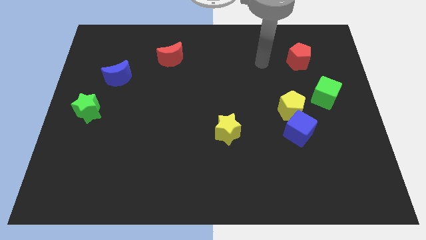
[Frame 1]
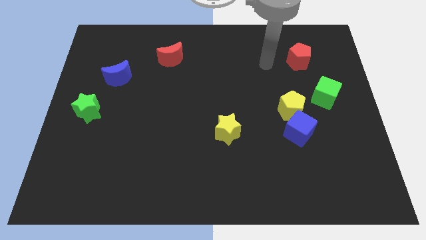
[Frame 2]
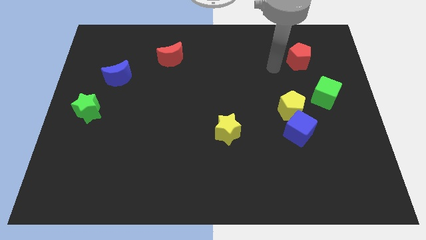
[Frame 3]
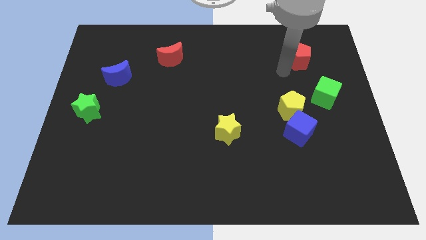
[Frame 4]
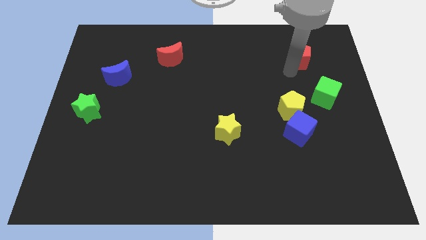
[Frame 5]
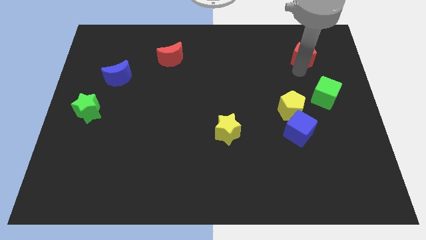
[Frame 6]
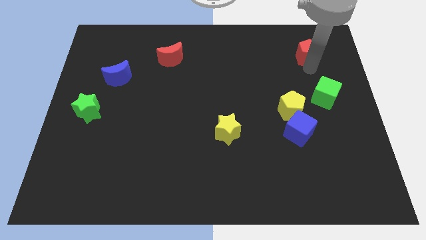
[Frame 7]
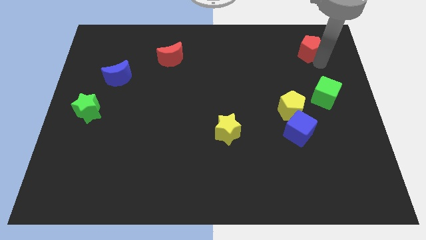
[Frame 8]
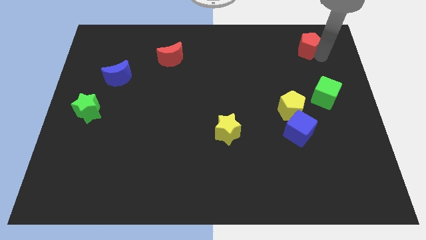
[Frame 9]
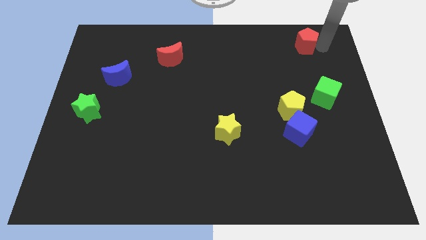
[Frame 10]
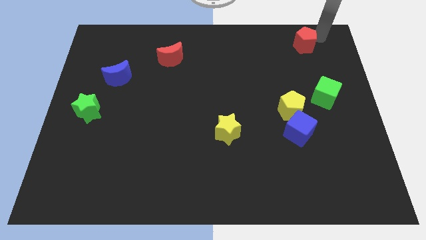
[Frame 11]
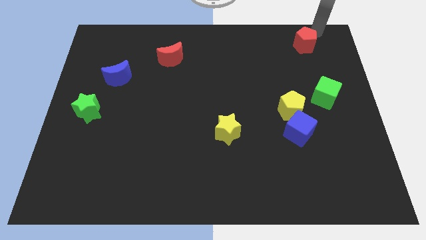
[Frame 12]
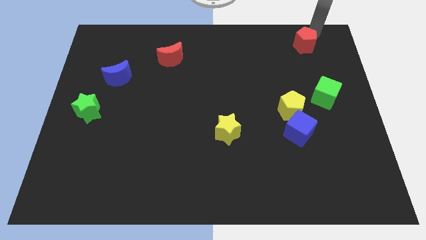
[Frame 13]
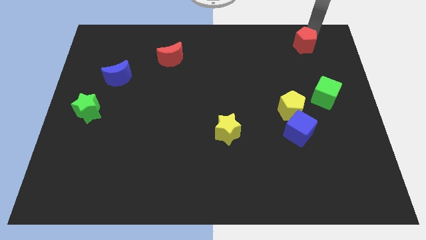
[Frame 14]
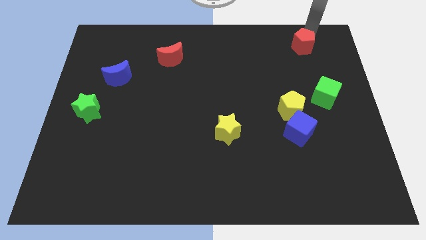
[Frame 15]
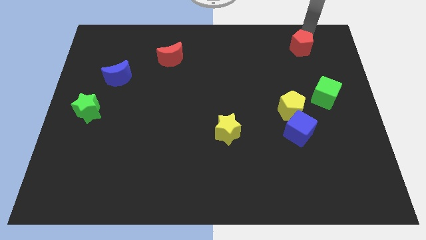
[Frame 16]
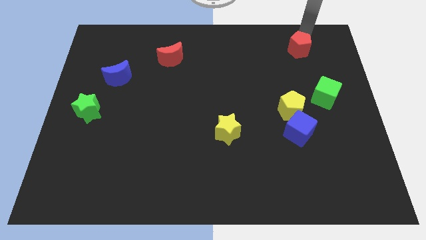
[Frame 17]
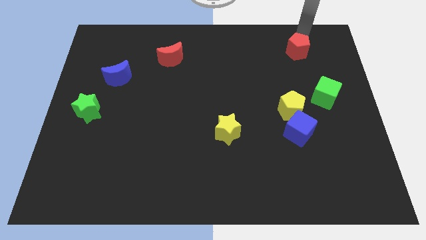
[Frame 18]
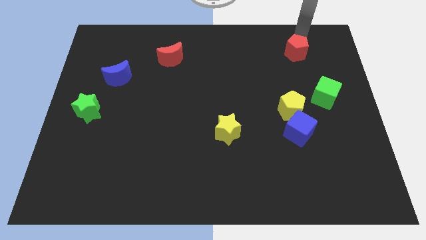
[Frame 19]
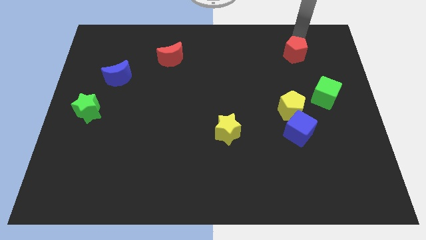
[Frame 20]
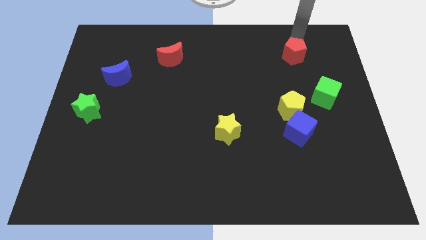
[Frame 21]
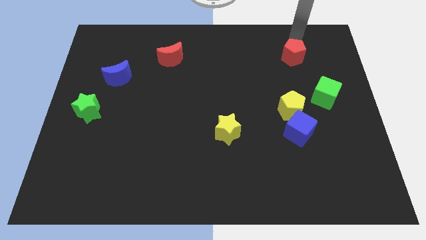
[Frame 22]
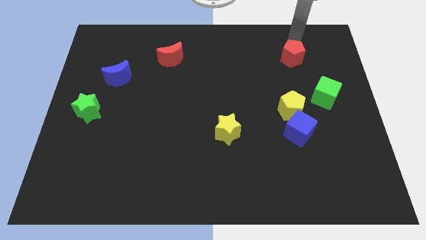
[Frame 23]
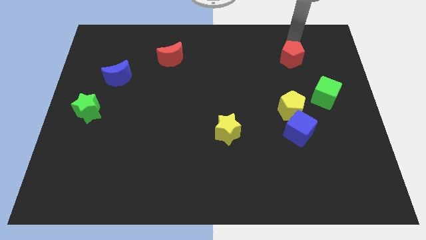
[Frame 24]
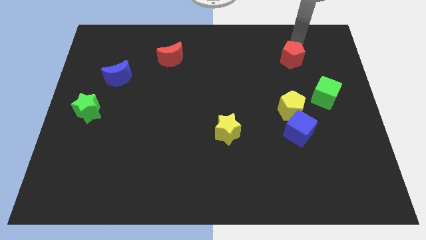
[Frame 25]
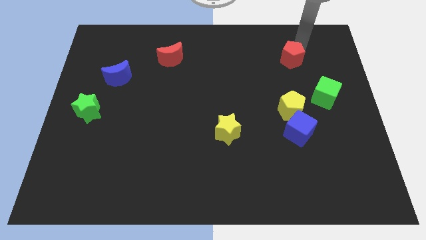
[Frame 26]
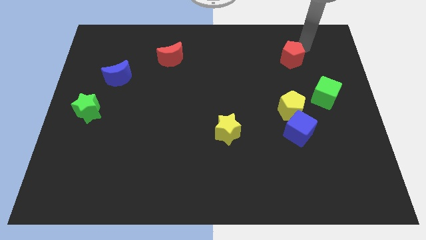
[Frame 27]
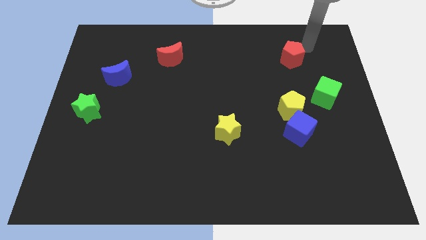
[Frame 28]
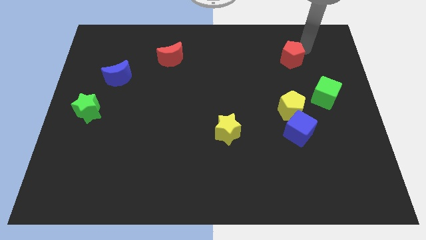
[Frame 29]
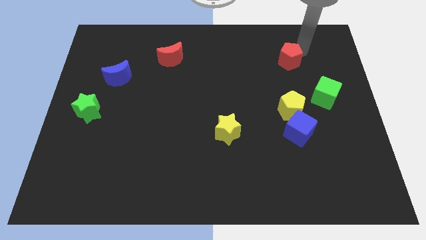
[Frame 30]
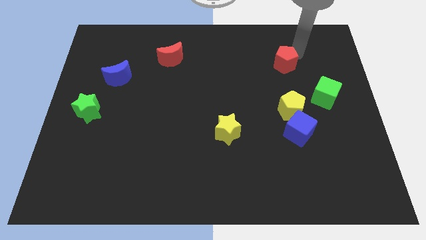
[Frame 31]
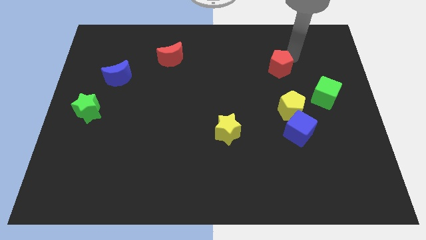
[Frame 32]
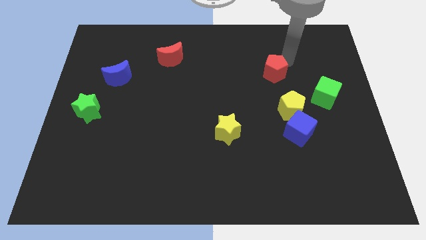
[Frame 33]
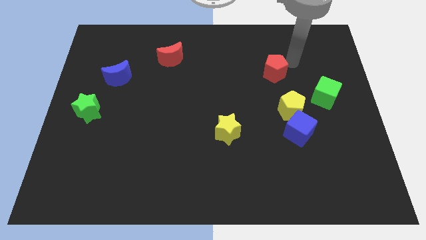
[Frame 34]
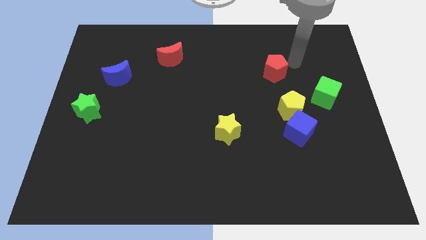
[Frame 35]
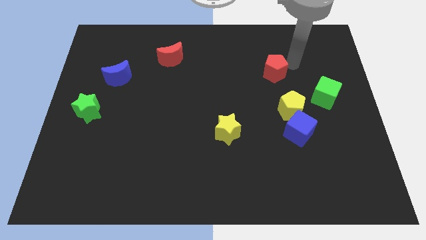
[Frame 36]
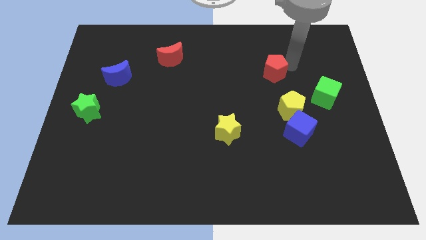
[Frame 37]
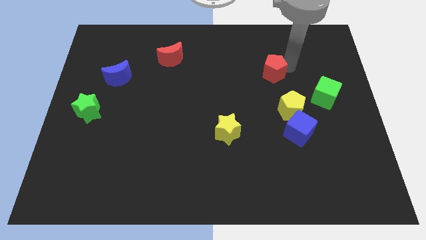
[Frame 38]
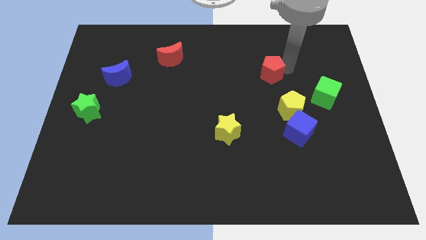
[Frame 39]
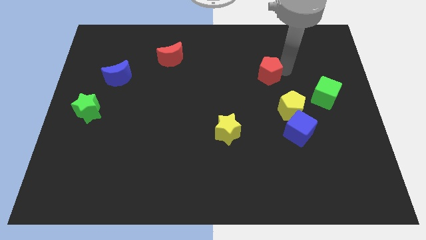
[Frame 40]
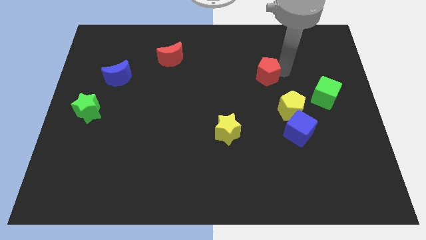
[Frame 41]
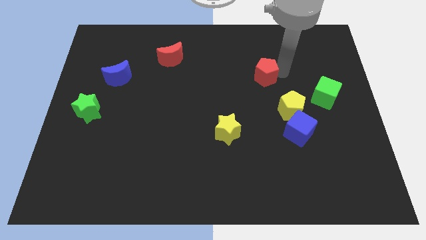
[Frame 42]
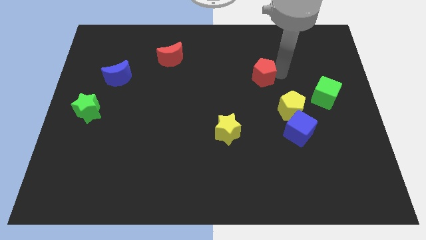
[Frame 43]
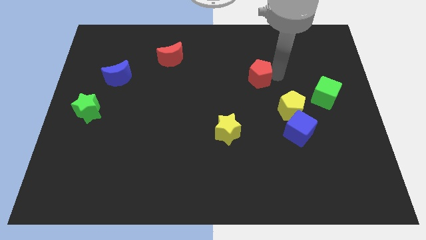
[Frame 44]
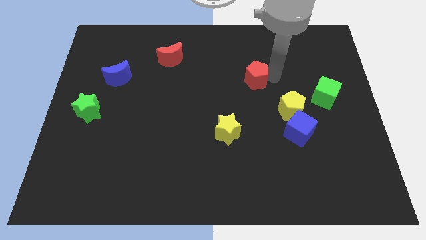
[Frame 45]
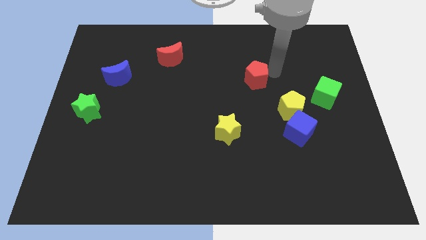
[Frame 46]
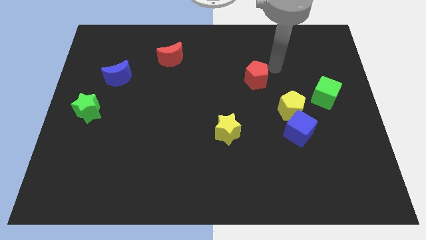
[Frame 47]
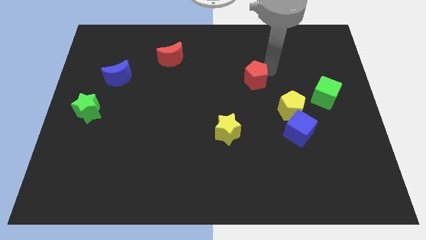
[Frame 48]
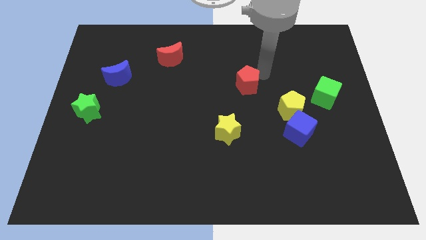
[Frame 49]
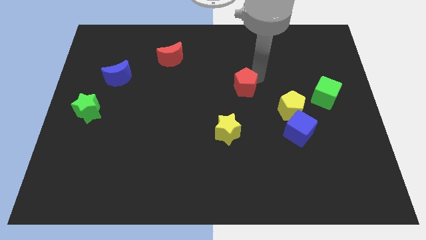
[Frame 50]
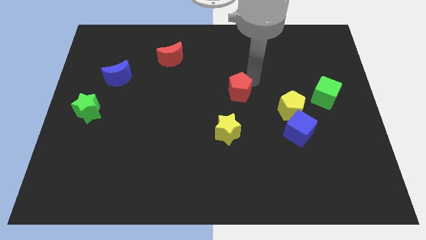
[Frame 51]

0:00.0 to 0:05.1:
slide the red pentagon above the yellow star

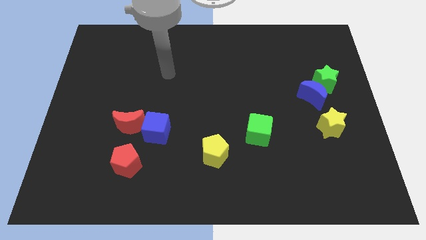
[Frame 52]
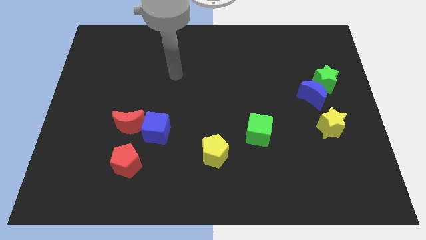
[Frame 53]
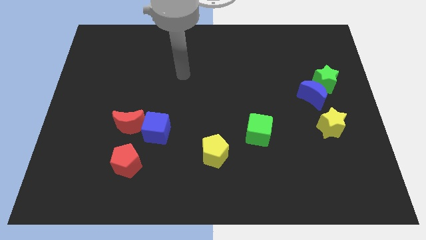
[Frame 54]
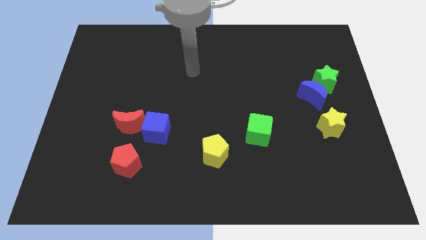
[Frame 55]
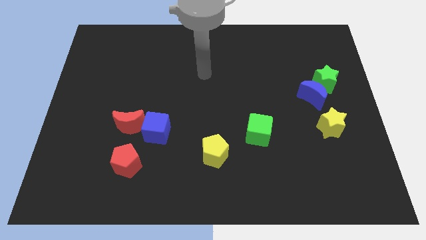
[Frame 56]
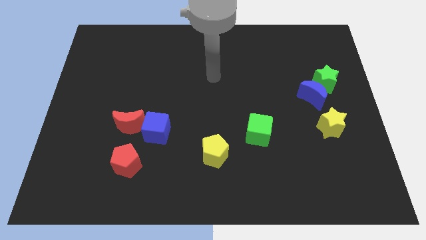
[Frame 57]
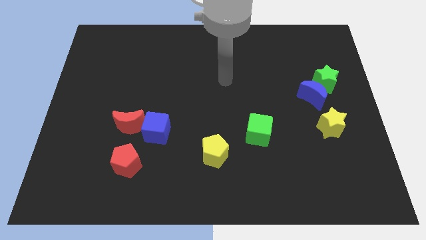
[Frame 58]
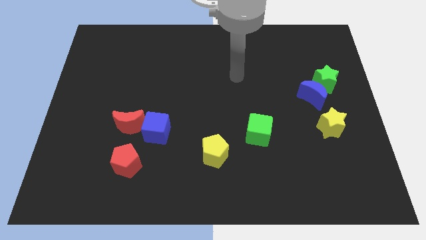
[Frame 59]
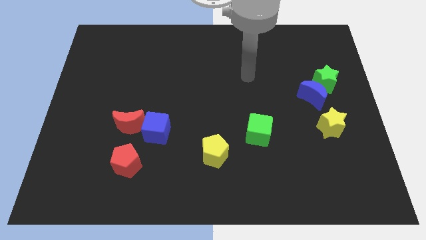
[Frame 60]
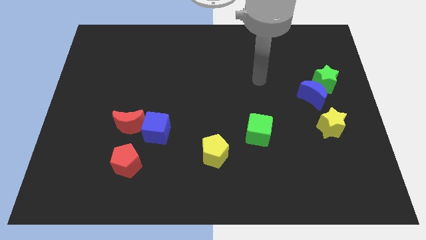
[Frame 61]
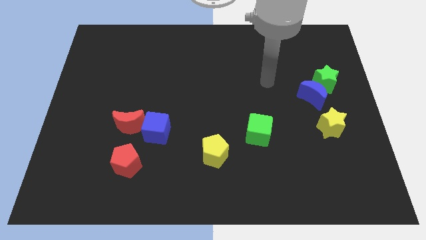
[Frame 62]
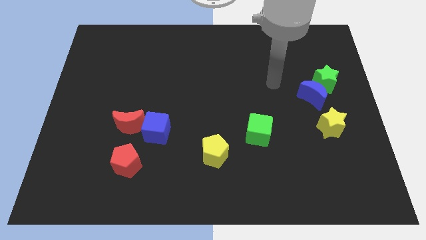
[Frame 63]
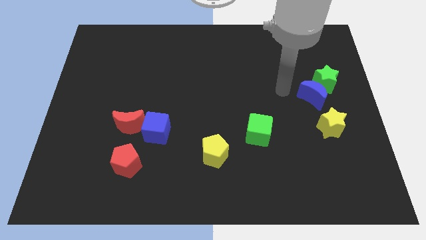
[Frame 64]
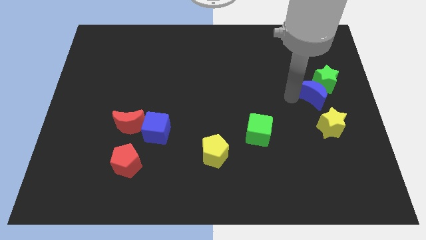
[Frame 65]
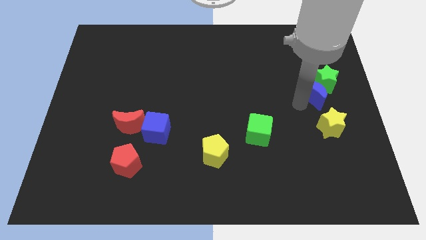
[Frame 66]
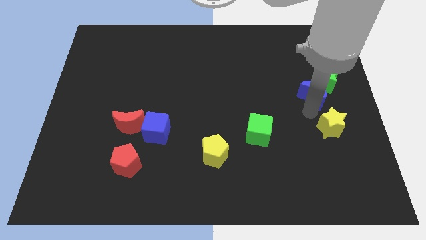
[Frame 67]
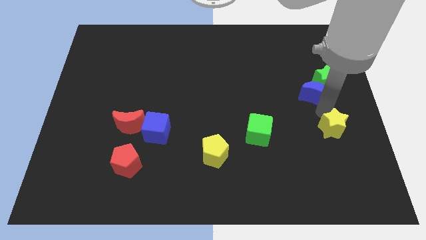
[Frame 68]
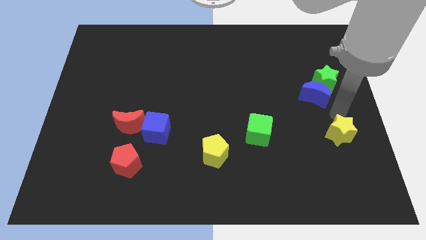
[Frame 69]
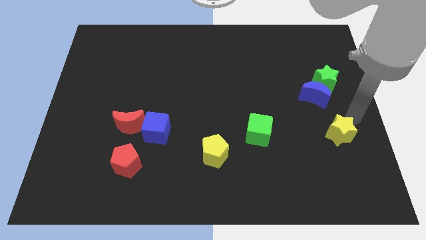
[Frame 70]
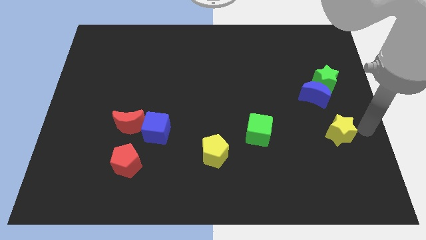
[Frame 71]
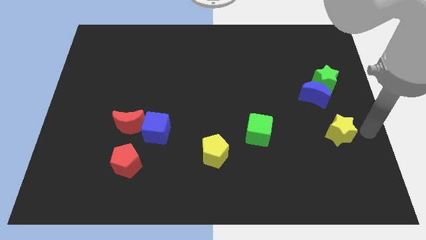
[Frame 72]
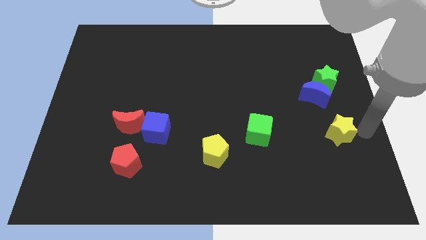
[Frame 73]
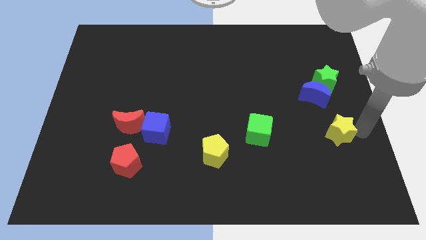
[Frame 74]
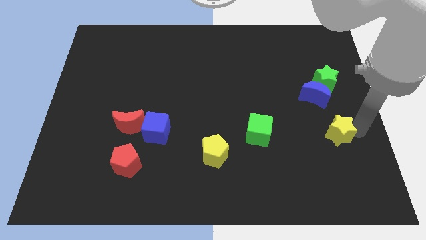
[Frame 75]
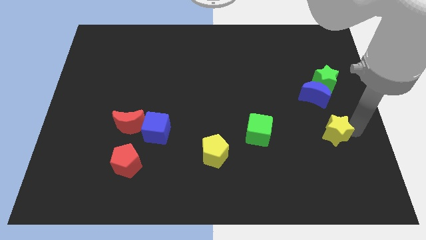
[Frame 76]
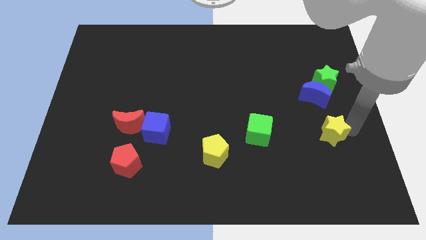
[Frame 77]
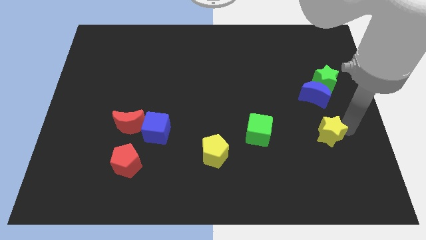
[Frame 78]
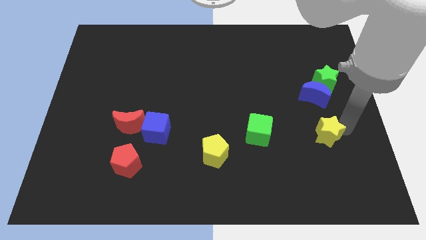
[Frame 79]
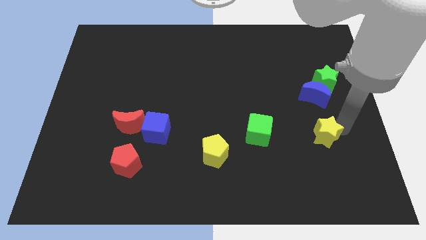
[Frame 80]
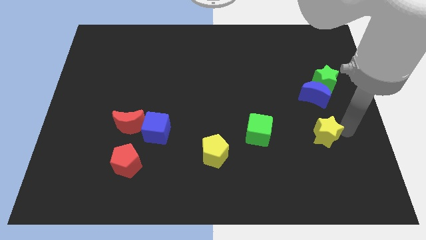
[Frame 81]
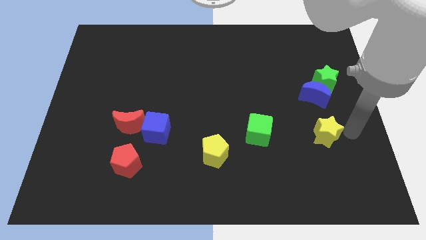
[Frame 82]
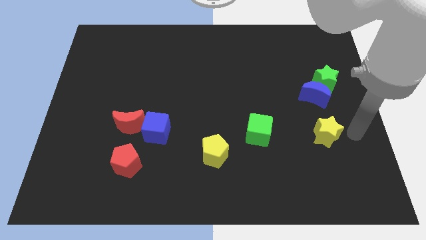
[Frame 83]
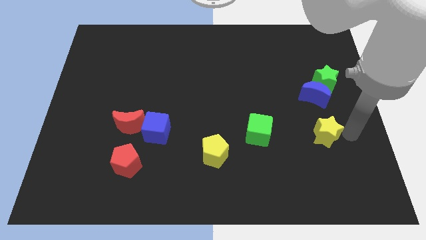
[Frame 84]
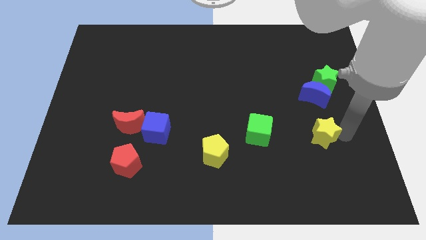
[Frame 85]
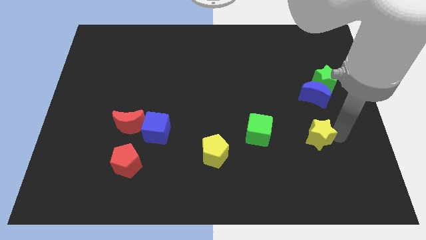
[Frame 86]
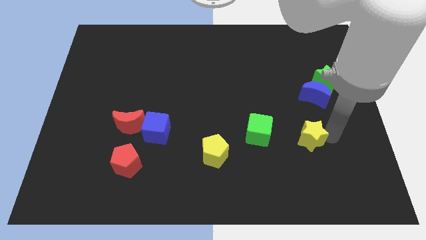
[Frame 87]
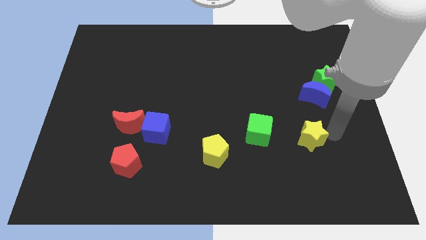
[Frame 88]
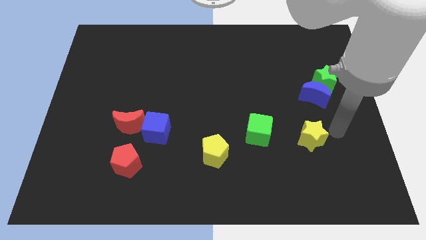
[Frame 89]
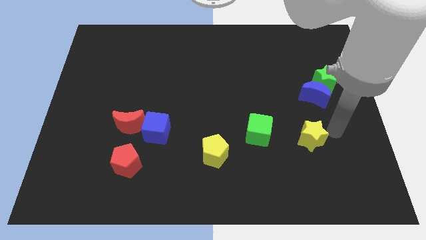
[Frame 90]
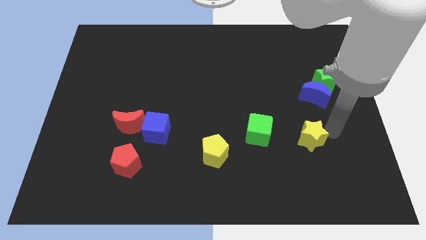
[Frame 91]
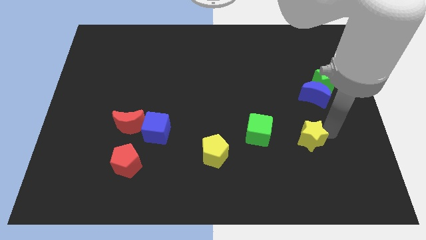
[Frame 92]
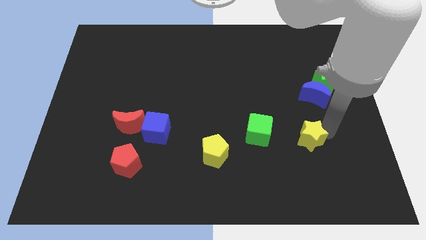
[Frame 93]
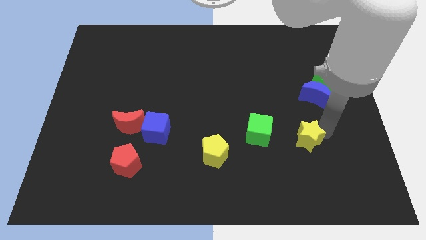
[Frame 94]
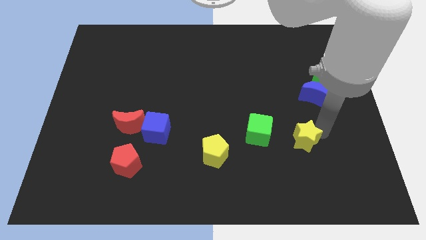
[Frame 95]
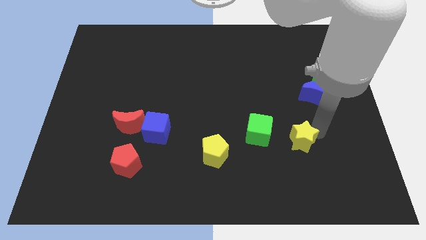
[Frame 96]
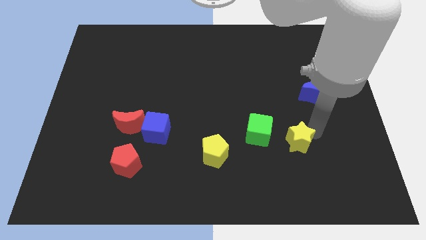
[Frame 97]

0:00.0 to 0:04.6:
push the yellow star diagonally down and to the right of the green cube
